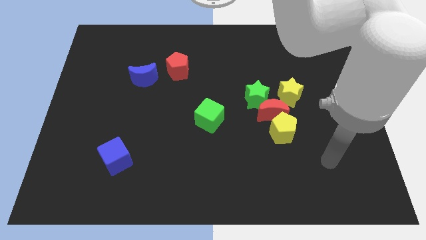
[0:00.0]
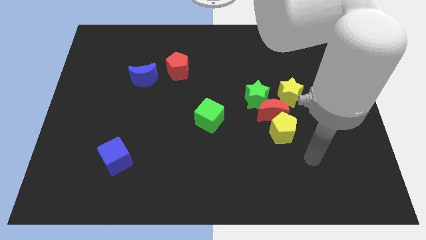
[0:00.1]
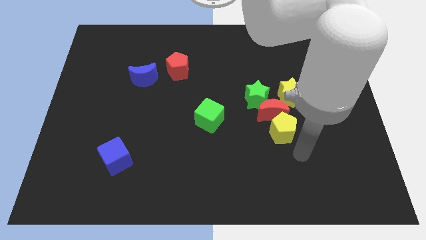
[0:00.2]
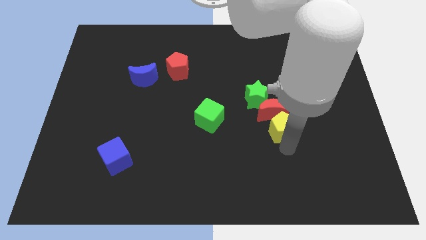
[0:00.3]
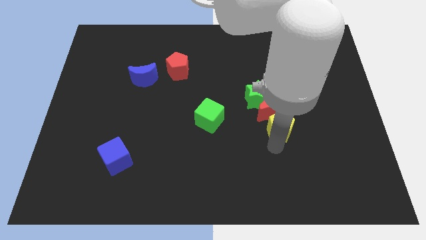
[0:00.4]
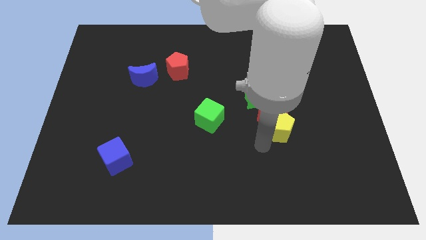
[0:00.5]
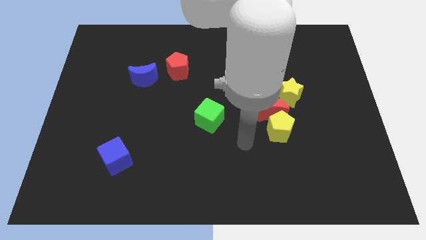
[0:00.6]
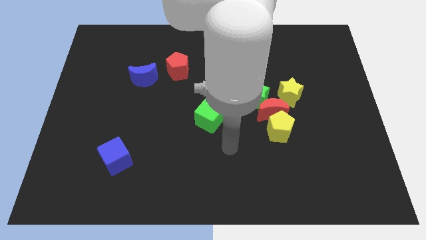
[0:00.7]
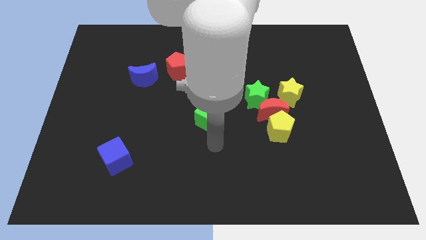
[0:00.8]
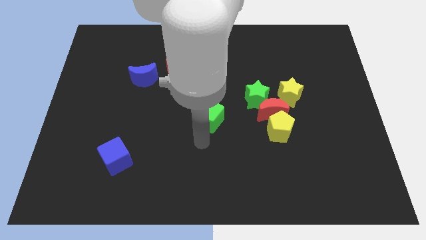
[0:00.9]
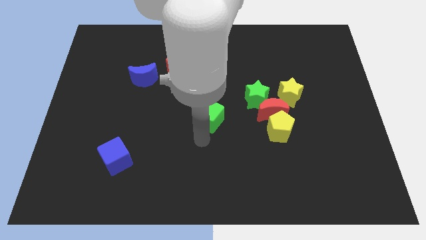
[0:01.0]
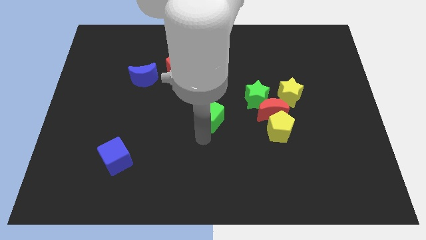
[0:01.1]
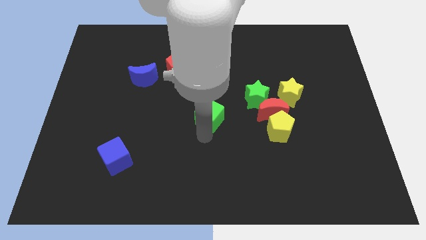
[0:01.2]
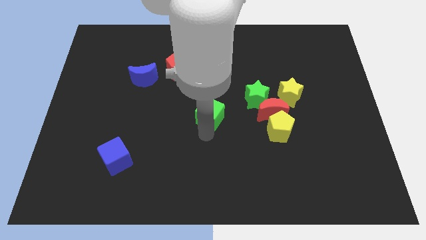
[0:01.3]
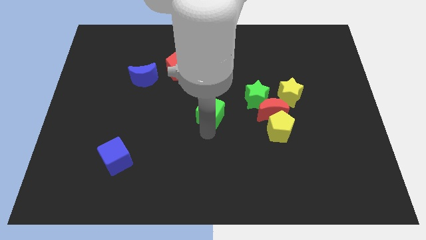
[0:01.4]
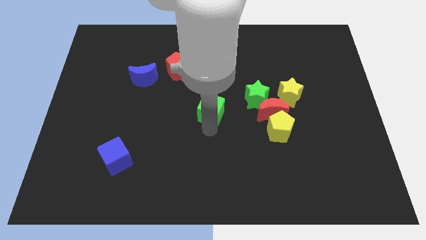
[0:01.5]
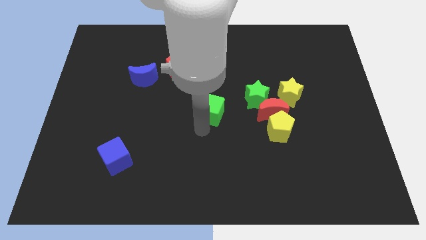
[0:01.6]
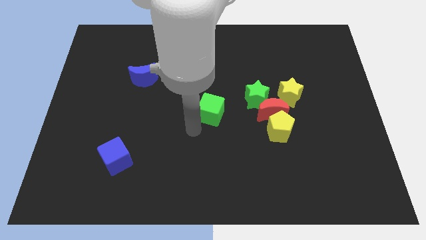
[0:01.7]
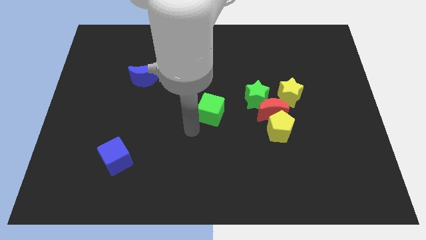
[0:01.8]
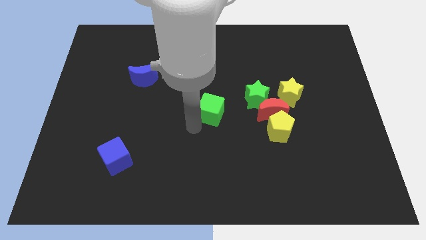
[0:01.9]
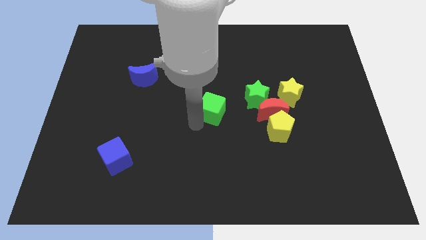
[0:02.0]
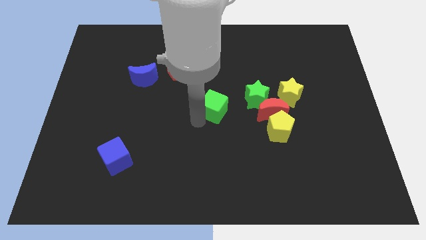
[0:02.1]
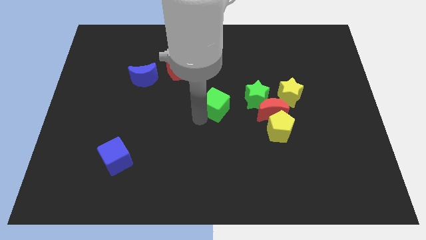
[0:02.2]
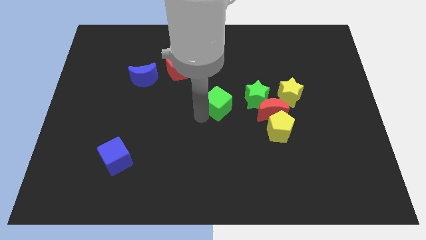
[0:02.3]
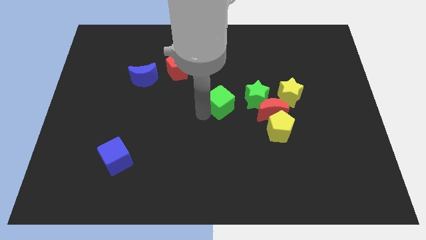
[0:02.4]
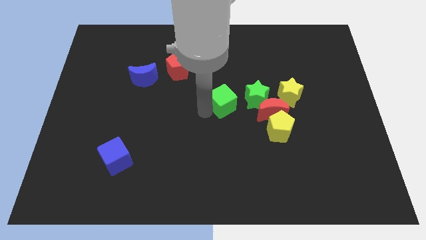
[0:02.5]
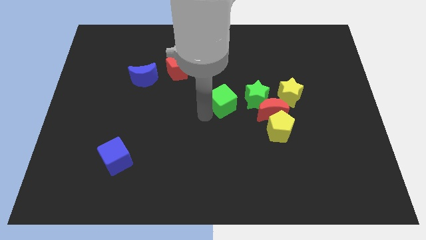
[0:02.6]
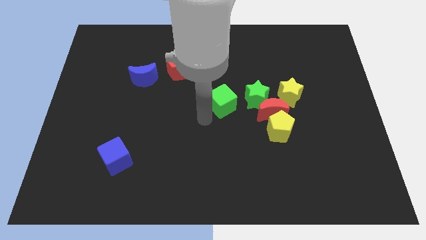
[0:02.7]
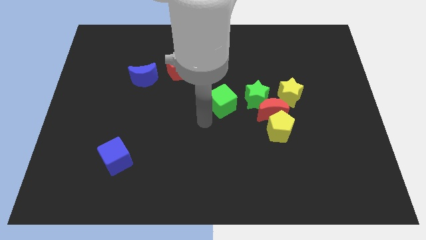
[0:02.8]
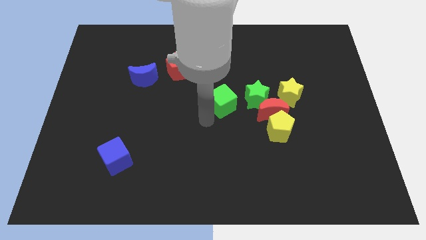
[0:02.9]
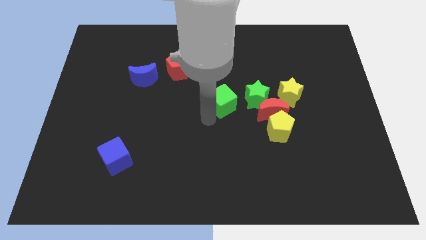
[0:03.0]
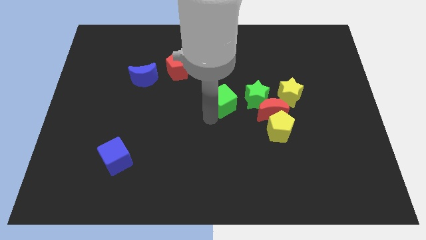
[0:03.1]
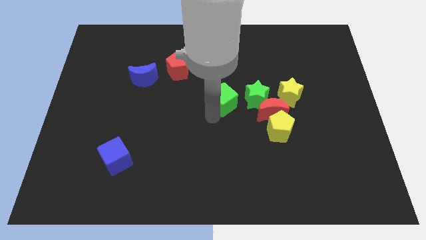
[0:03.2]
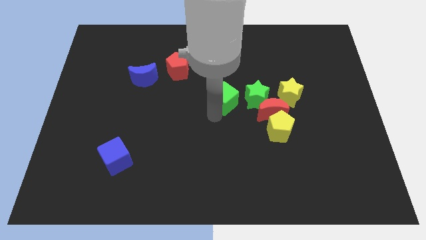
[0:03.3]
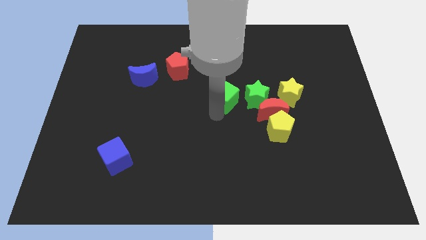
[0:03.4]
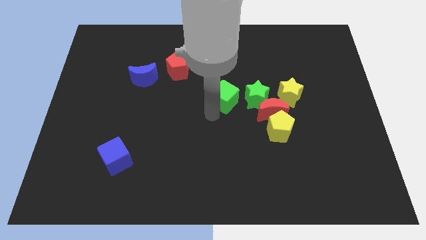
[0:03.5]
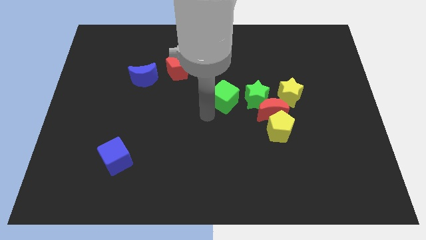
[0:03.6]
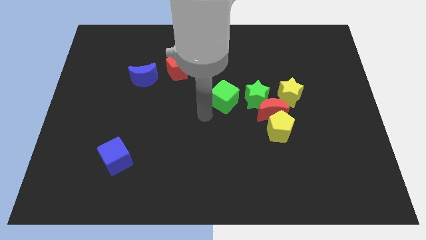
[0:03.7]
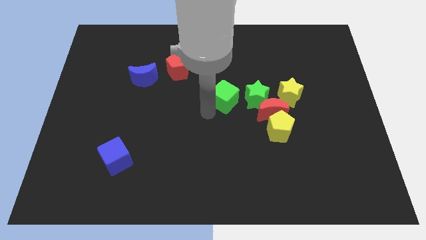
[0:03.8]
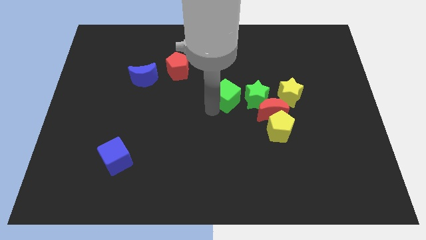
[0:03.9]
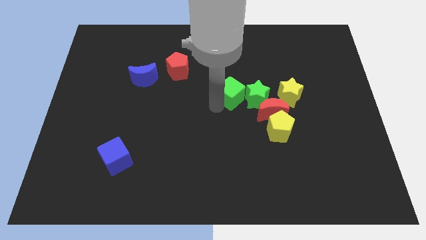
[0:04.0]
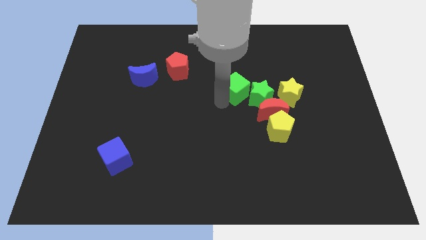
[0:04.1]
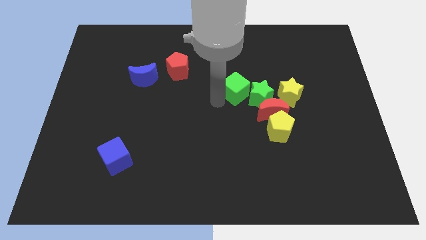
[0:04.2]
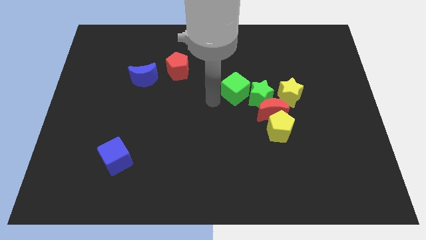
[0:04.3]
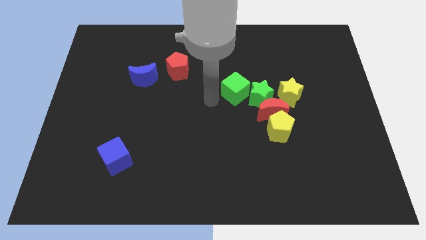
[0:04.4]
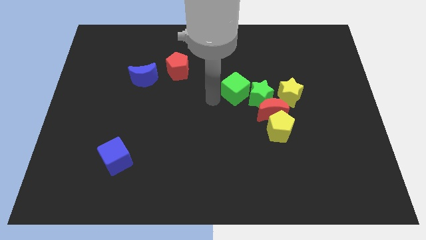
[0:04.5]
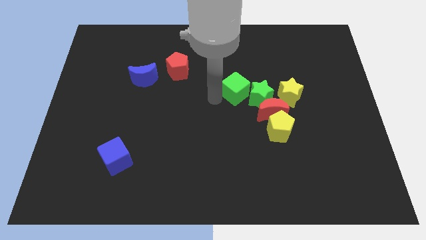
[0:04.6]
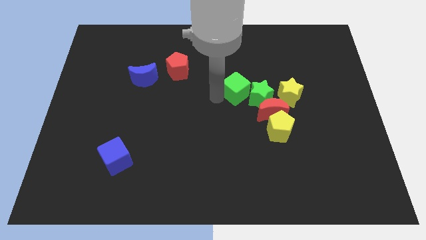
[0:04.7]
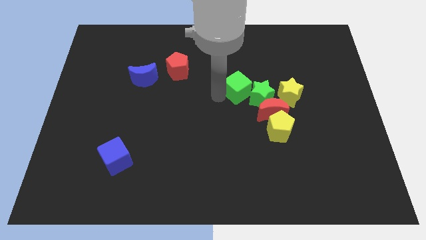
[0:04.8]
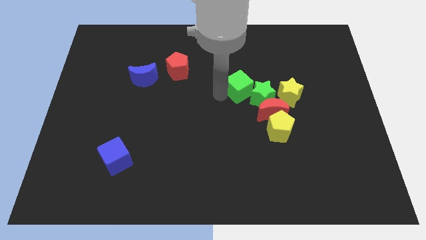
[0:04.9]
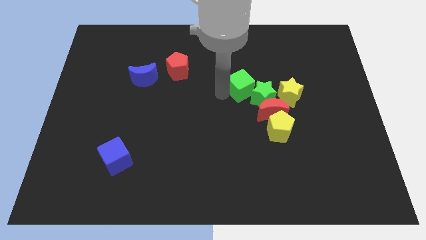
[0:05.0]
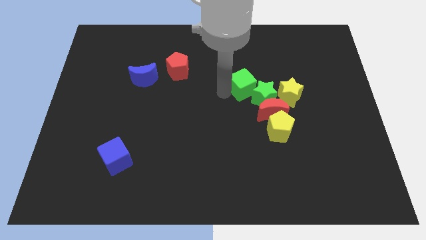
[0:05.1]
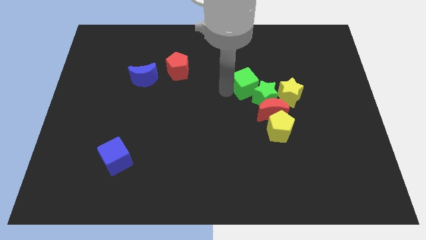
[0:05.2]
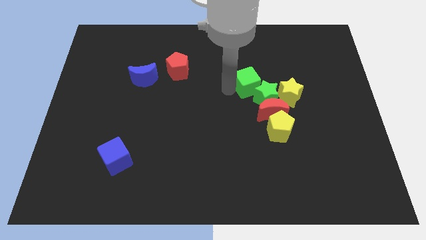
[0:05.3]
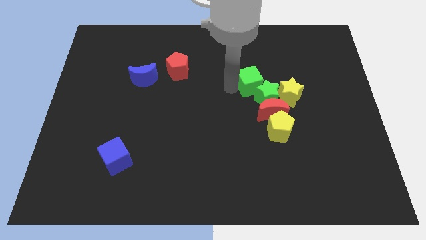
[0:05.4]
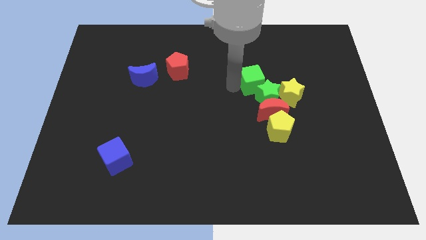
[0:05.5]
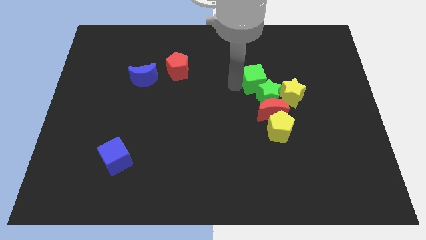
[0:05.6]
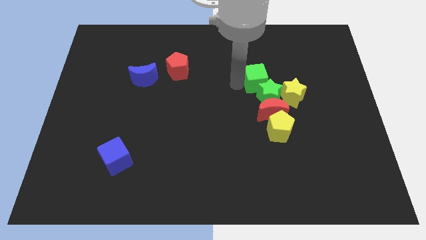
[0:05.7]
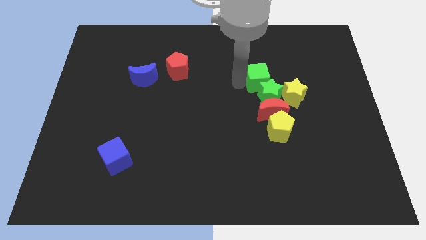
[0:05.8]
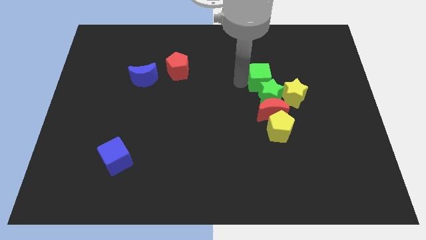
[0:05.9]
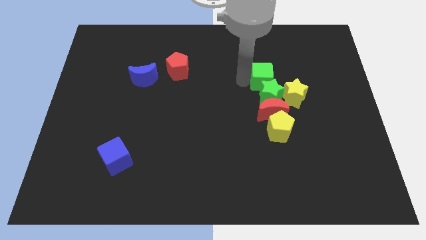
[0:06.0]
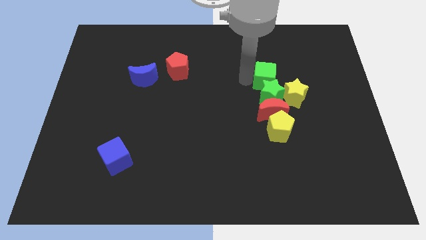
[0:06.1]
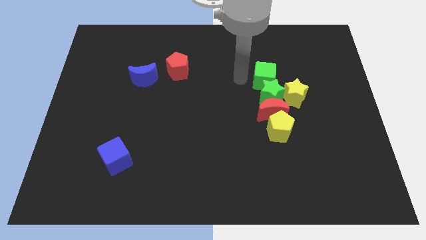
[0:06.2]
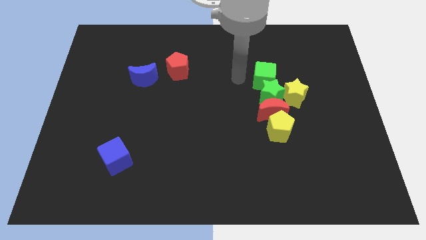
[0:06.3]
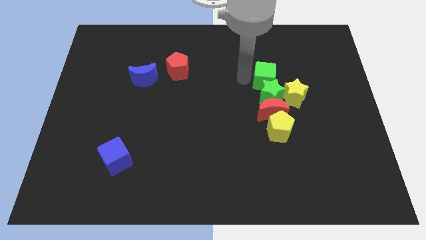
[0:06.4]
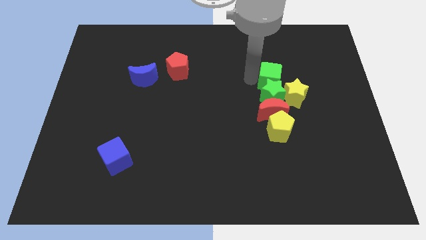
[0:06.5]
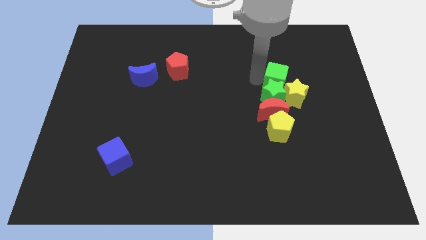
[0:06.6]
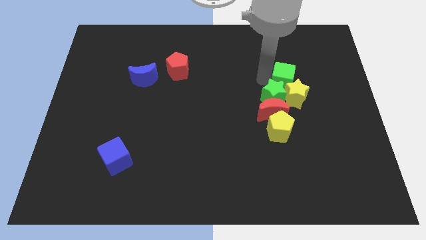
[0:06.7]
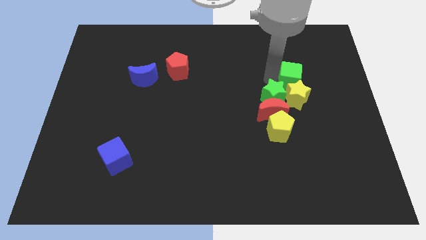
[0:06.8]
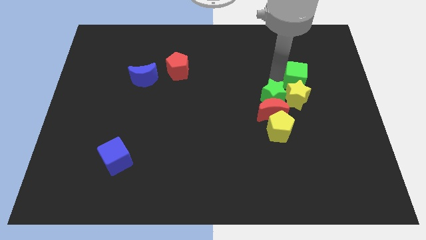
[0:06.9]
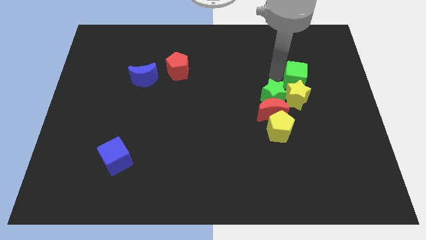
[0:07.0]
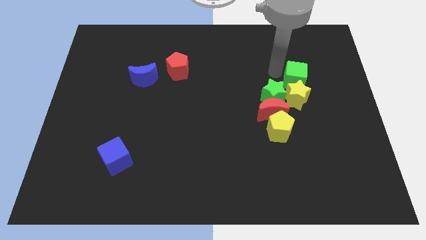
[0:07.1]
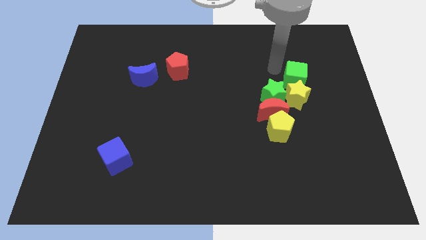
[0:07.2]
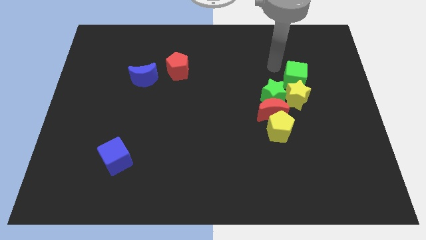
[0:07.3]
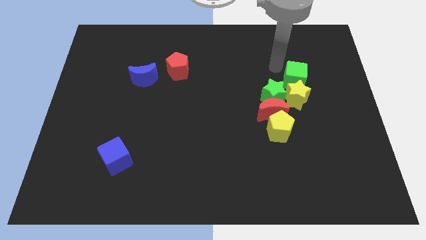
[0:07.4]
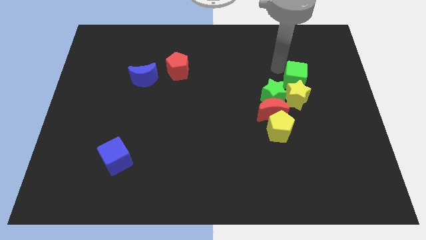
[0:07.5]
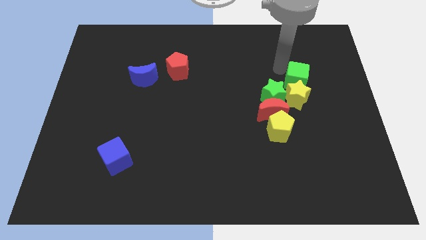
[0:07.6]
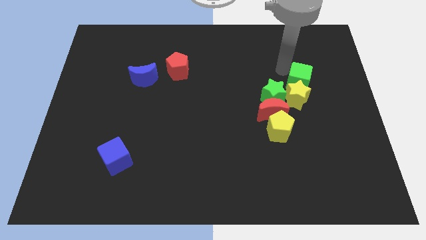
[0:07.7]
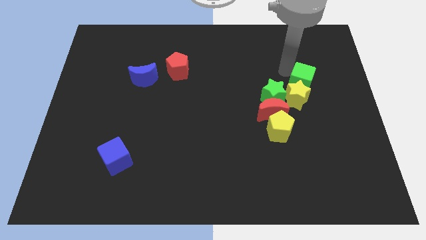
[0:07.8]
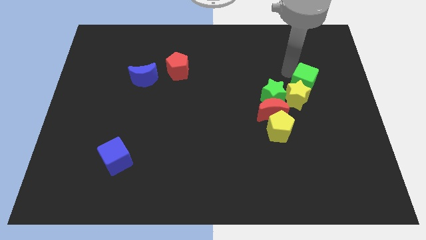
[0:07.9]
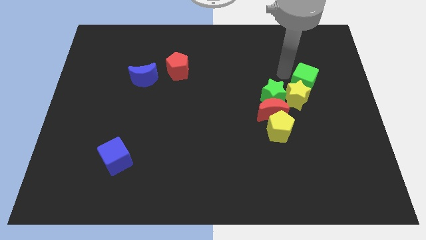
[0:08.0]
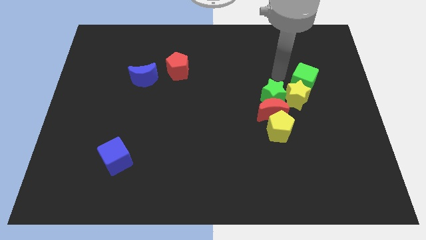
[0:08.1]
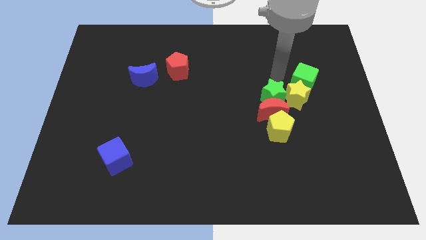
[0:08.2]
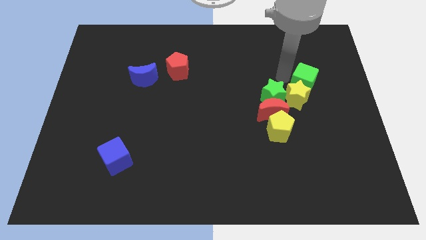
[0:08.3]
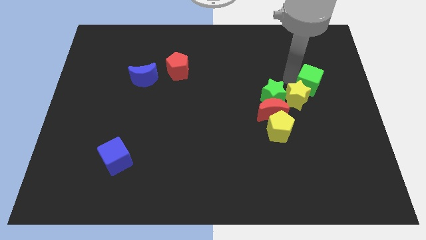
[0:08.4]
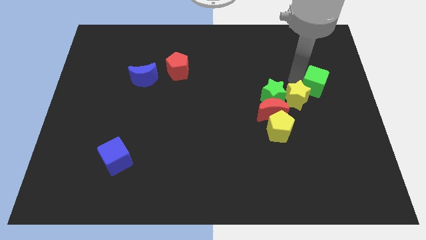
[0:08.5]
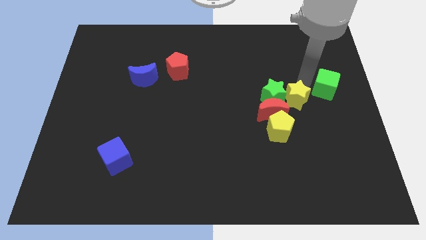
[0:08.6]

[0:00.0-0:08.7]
slide the green cube to the right side
